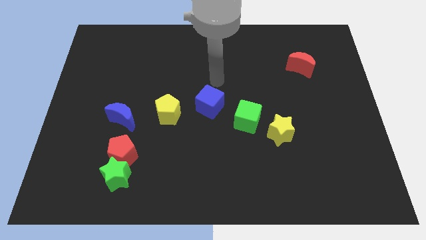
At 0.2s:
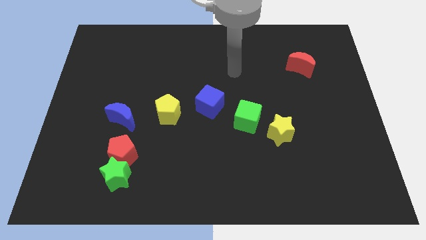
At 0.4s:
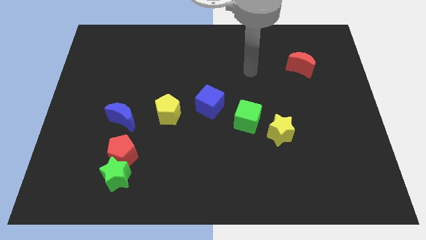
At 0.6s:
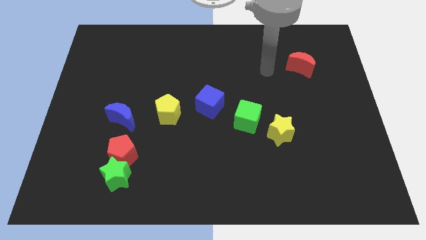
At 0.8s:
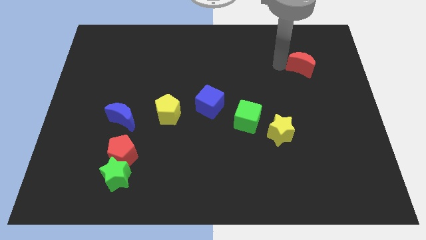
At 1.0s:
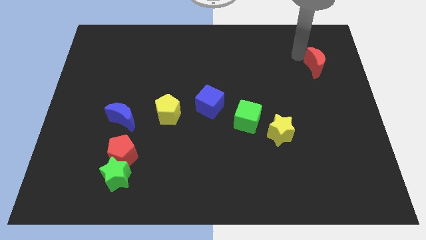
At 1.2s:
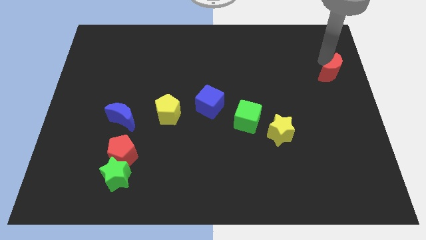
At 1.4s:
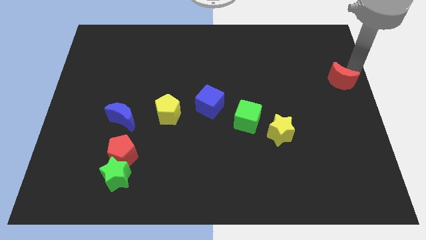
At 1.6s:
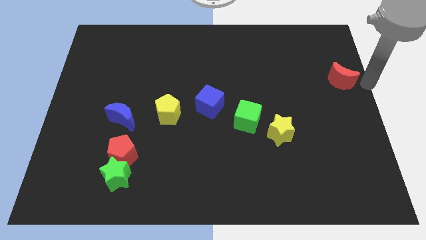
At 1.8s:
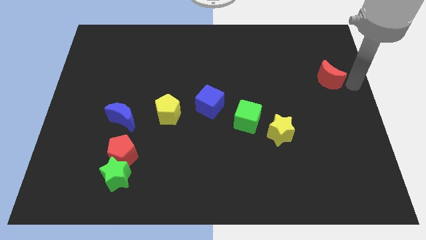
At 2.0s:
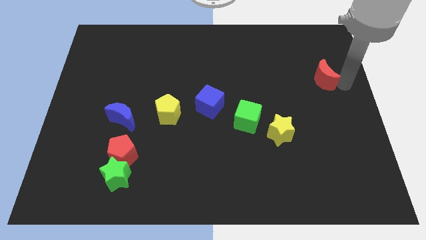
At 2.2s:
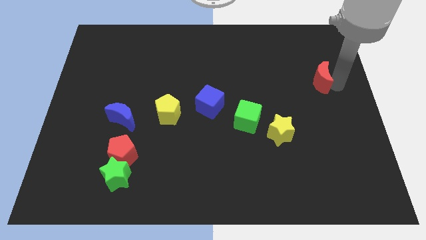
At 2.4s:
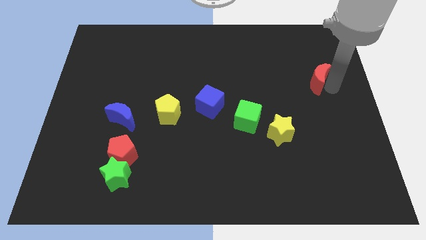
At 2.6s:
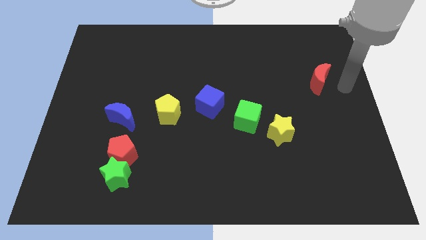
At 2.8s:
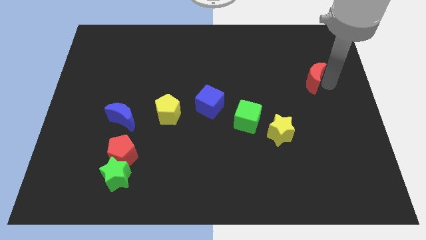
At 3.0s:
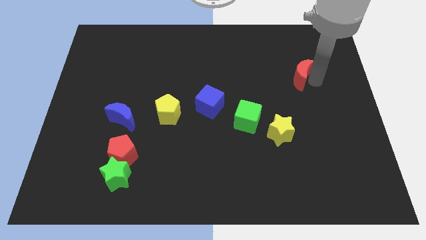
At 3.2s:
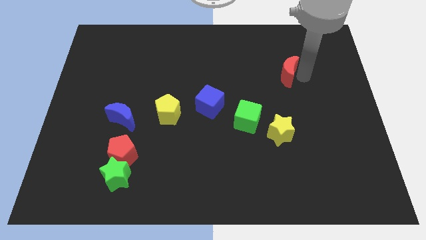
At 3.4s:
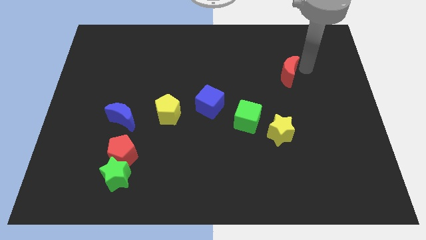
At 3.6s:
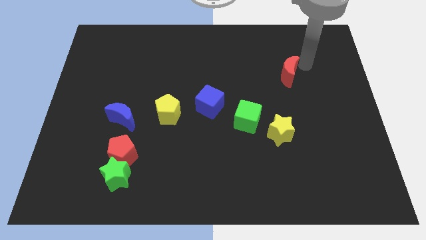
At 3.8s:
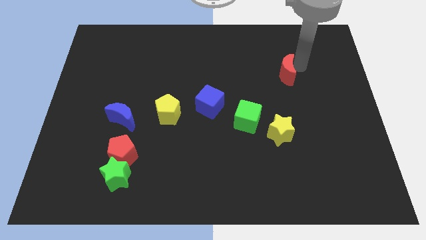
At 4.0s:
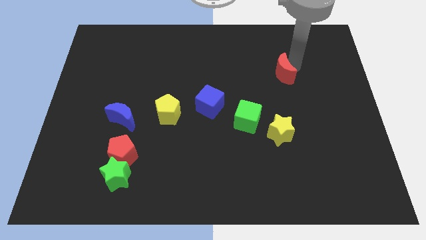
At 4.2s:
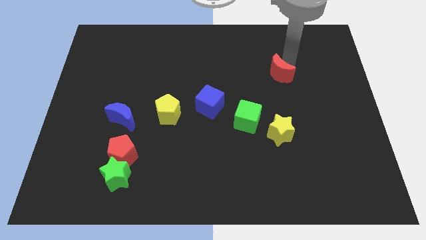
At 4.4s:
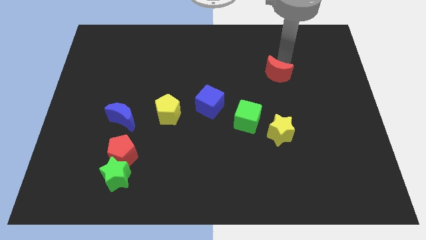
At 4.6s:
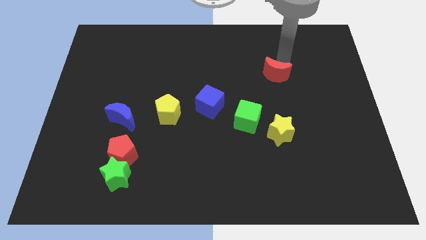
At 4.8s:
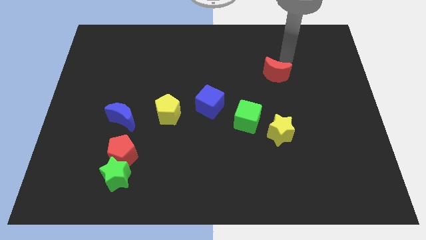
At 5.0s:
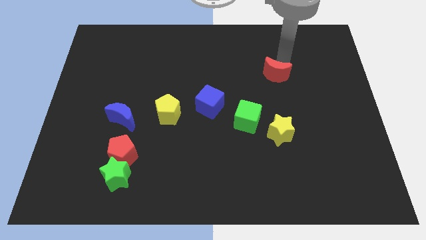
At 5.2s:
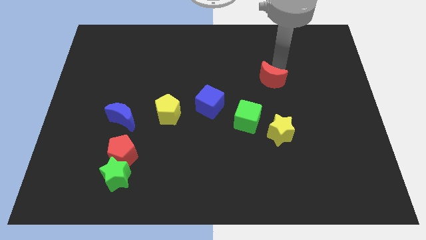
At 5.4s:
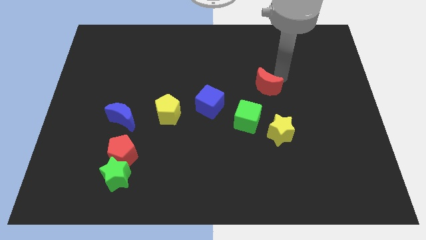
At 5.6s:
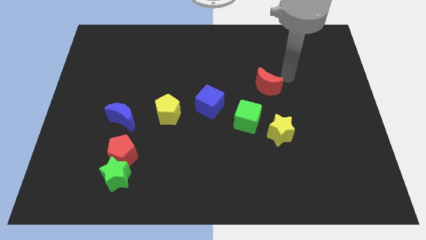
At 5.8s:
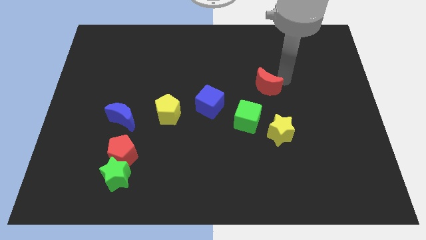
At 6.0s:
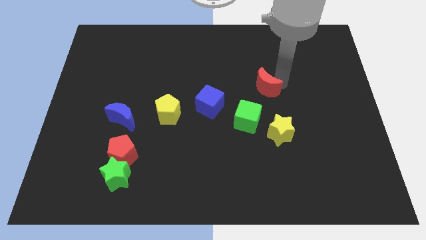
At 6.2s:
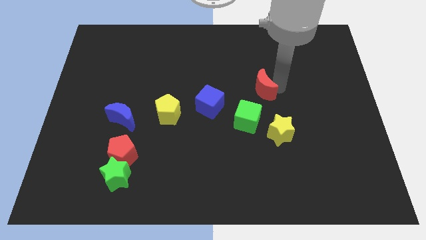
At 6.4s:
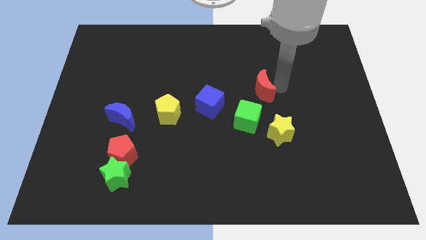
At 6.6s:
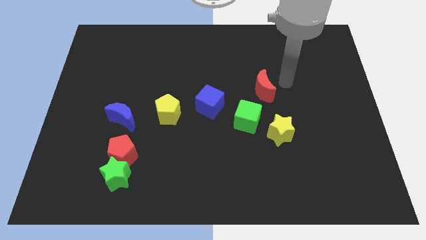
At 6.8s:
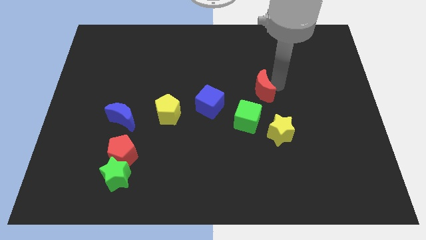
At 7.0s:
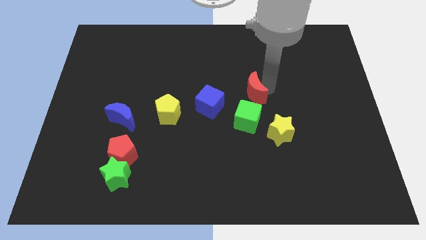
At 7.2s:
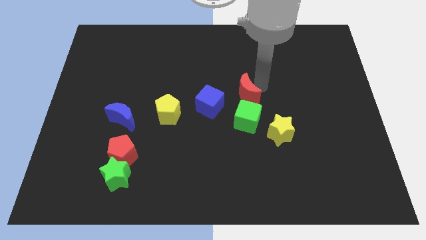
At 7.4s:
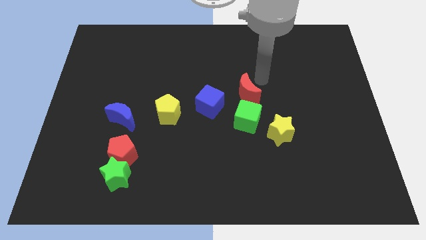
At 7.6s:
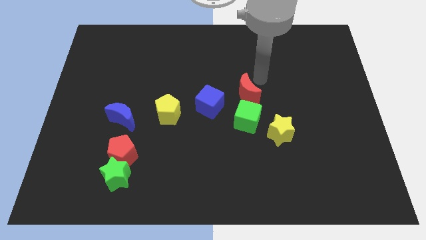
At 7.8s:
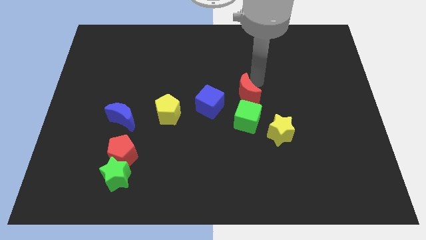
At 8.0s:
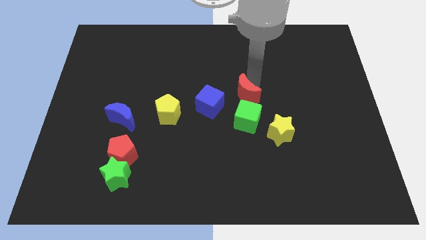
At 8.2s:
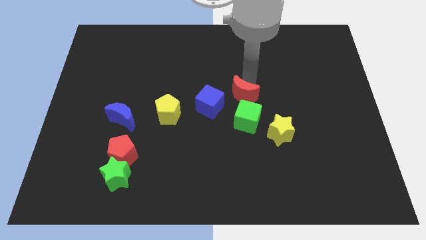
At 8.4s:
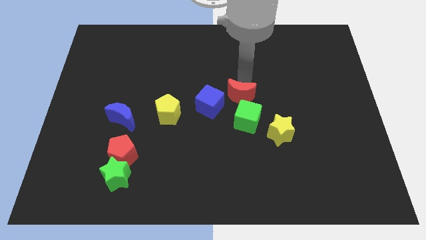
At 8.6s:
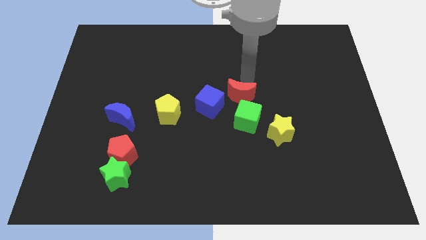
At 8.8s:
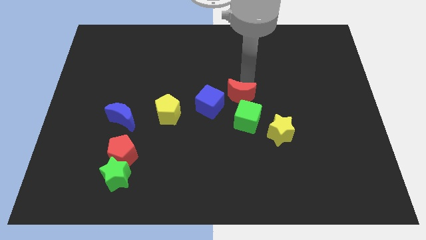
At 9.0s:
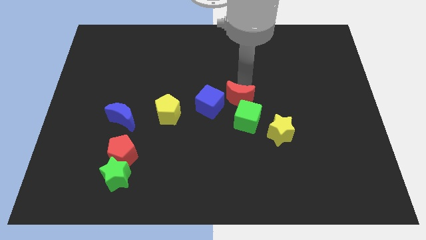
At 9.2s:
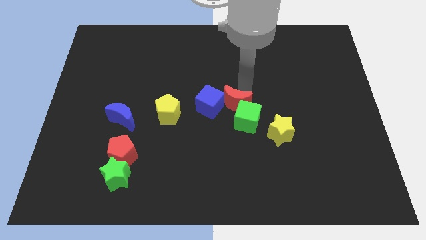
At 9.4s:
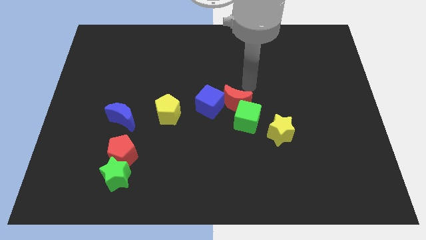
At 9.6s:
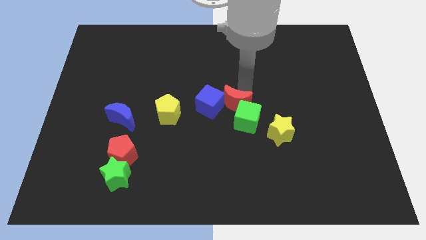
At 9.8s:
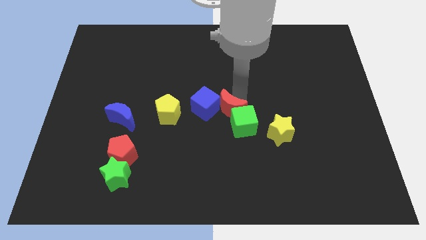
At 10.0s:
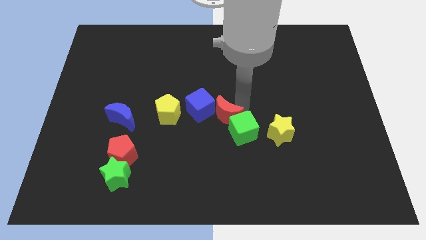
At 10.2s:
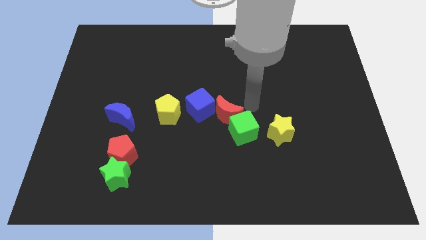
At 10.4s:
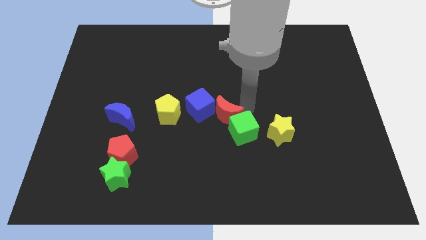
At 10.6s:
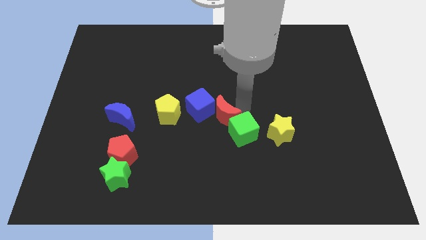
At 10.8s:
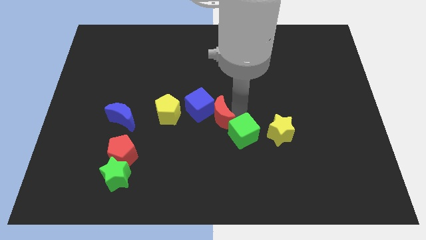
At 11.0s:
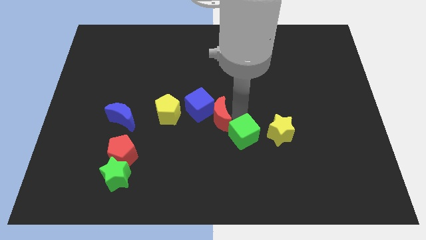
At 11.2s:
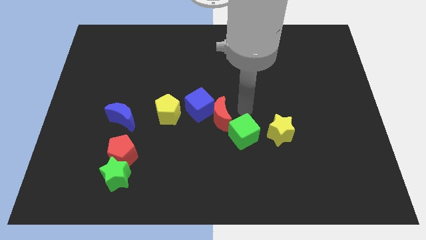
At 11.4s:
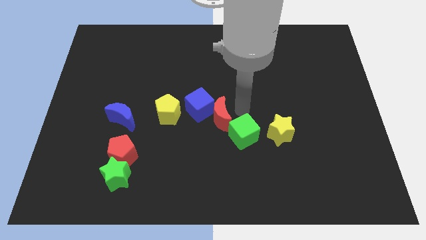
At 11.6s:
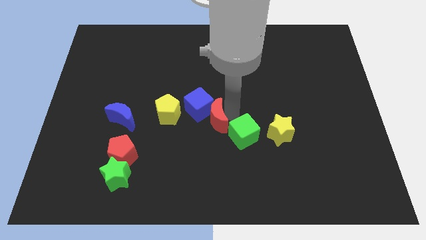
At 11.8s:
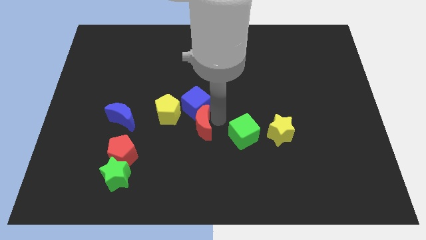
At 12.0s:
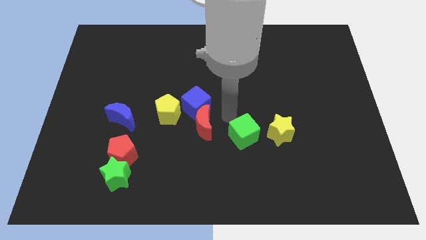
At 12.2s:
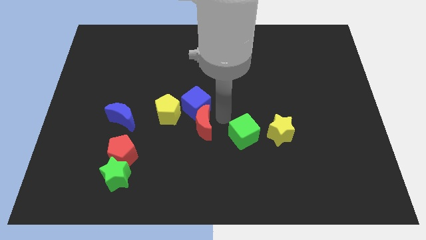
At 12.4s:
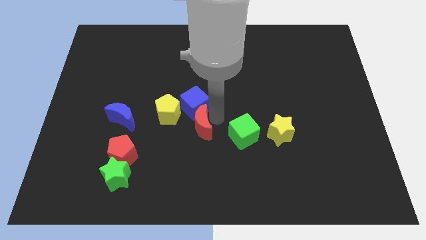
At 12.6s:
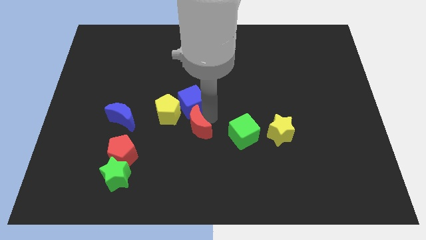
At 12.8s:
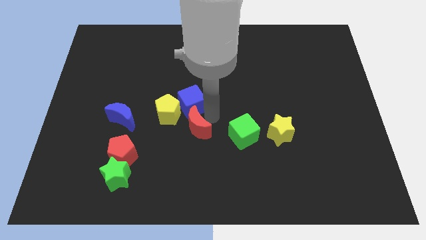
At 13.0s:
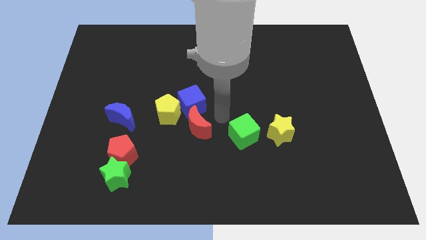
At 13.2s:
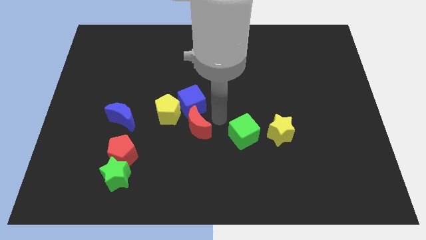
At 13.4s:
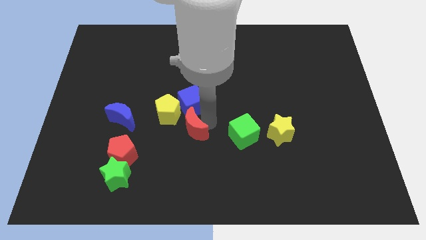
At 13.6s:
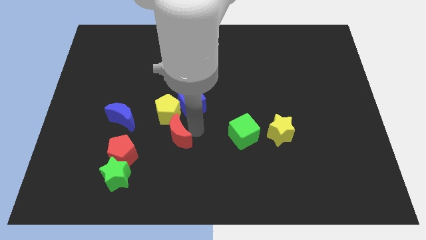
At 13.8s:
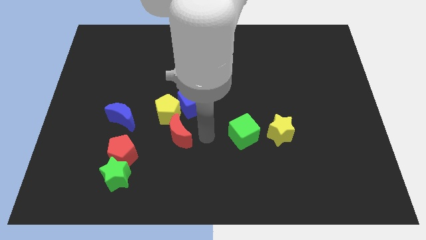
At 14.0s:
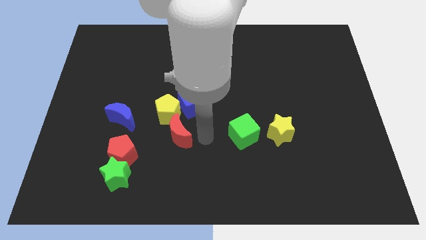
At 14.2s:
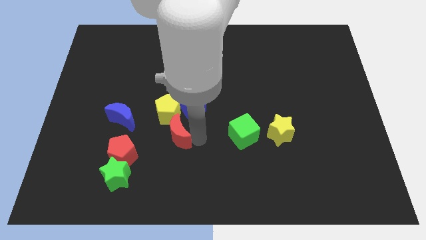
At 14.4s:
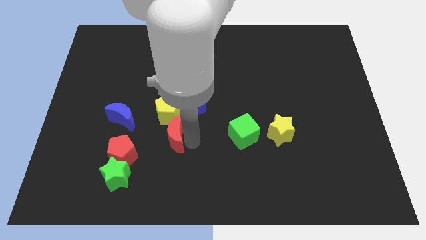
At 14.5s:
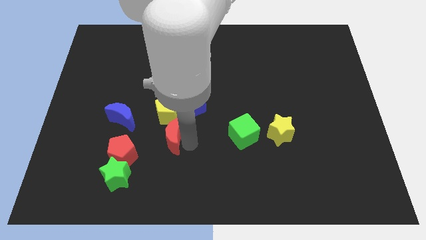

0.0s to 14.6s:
slide the red moon to the top right side of the red pentagon
